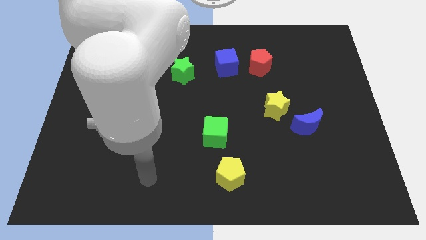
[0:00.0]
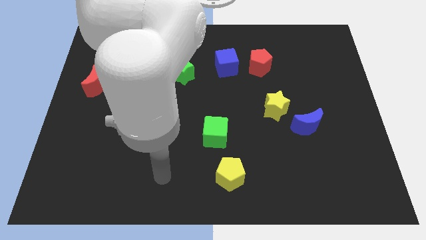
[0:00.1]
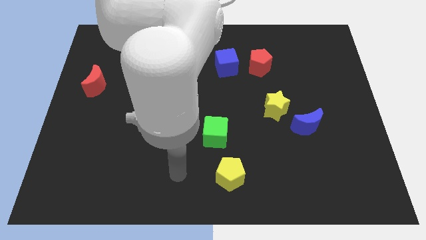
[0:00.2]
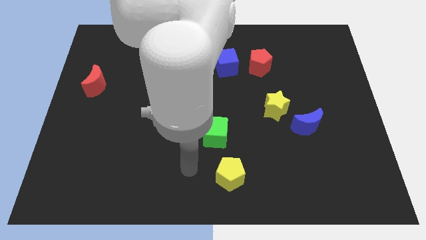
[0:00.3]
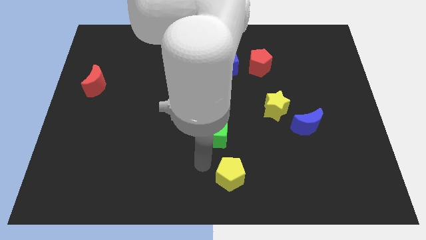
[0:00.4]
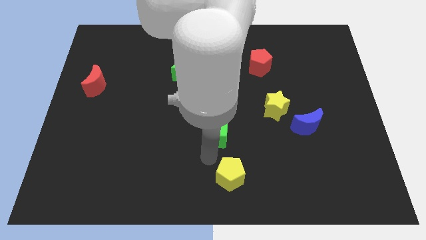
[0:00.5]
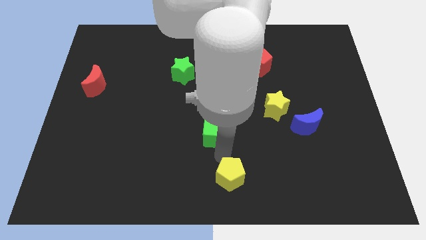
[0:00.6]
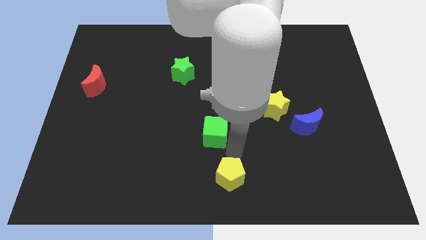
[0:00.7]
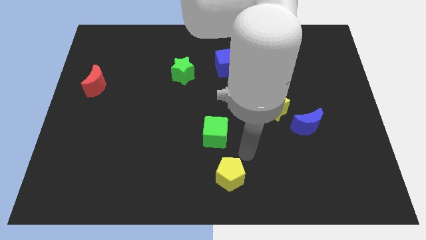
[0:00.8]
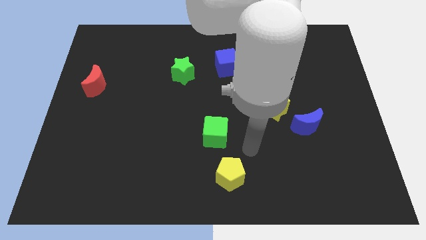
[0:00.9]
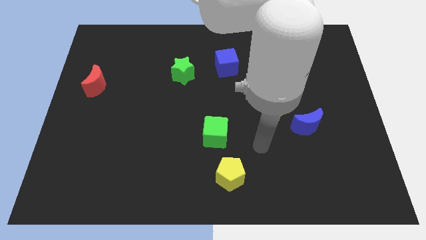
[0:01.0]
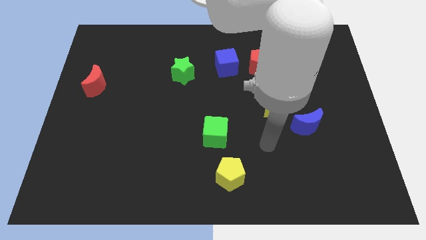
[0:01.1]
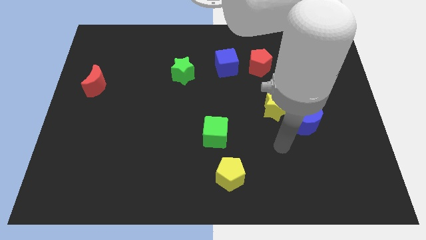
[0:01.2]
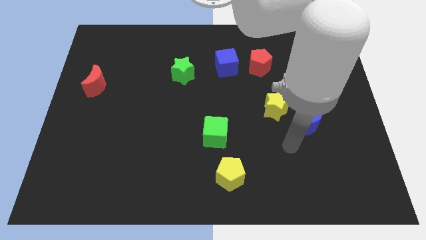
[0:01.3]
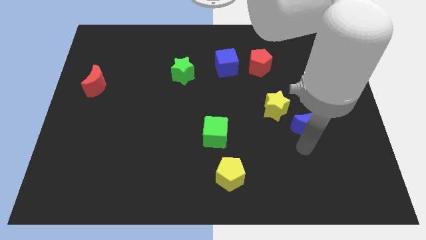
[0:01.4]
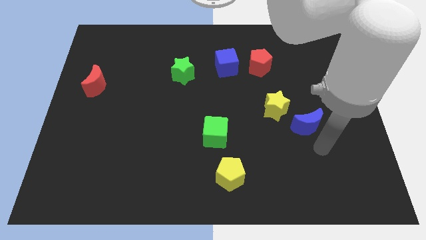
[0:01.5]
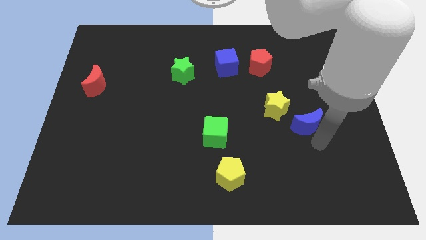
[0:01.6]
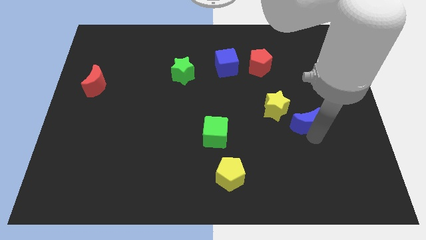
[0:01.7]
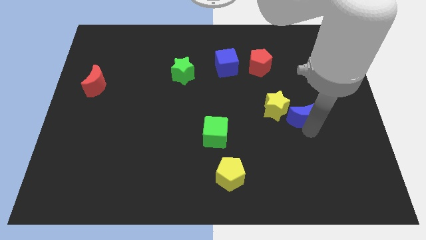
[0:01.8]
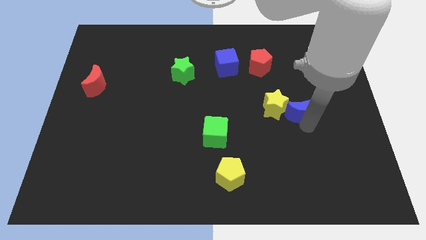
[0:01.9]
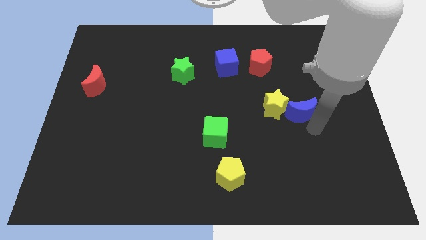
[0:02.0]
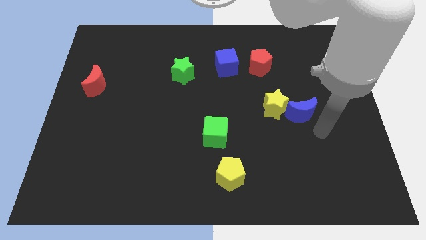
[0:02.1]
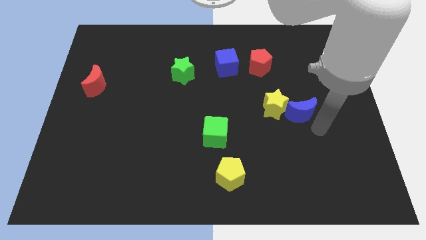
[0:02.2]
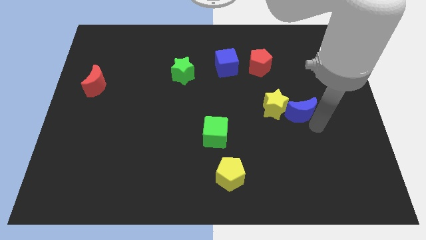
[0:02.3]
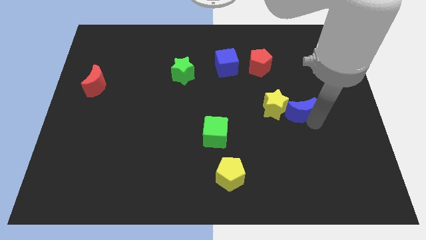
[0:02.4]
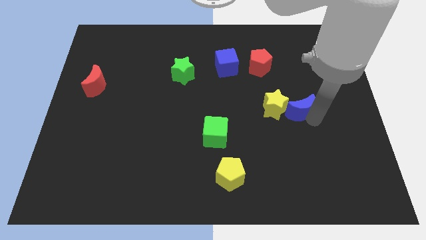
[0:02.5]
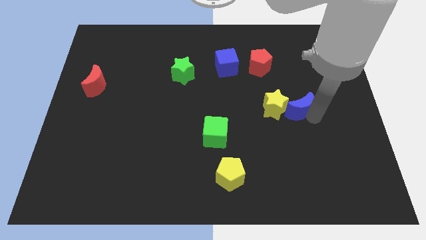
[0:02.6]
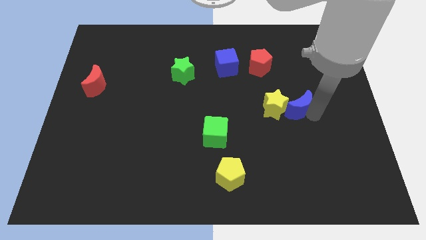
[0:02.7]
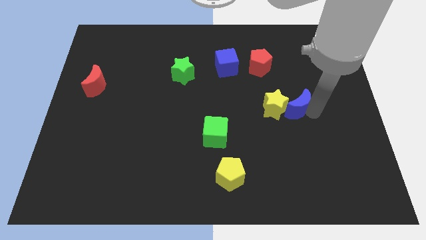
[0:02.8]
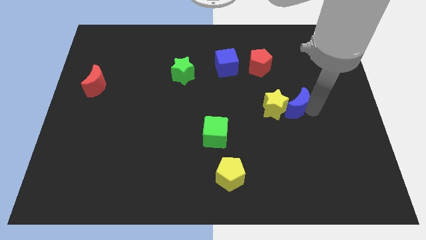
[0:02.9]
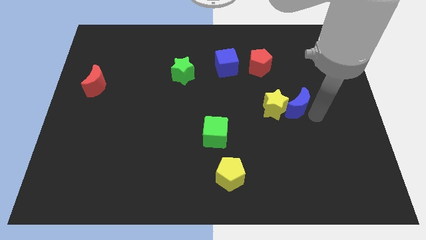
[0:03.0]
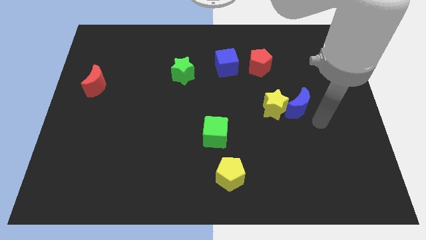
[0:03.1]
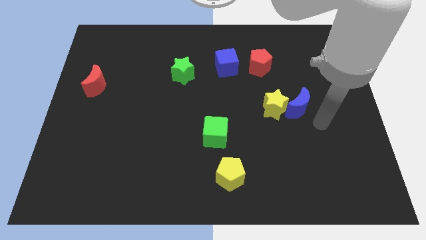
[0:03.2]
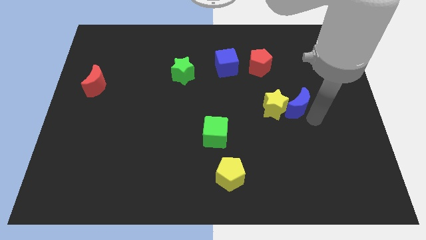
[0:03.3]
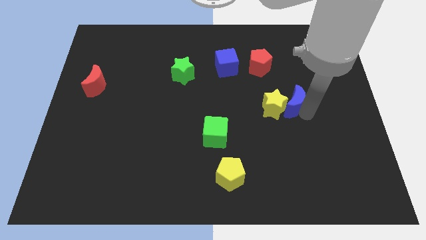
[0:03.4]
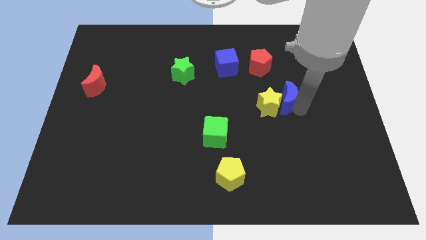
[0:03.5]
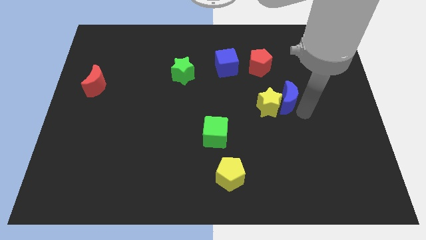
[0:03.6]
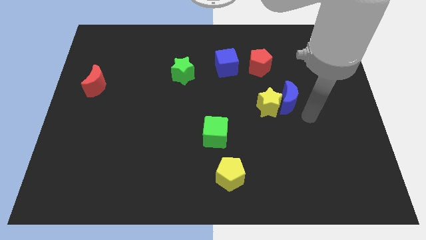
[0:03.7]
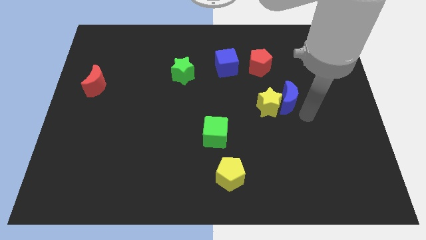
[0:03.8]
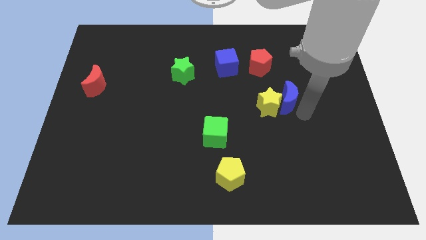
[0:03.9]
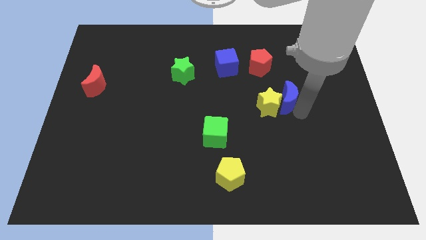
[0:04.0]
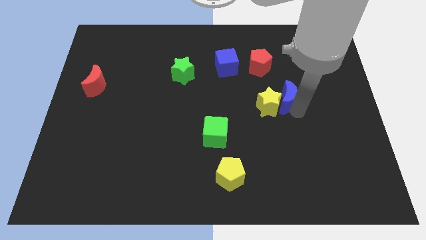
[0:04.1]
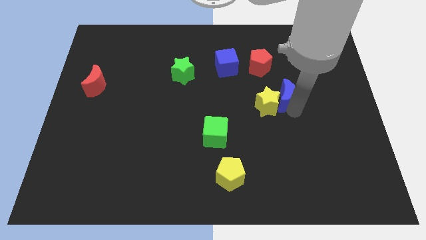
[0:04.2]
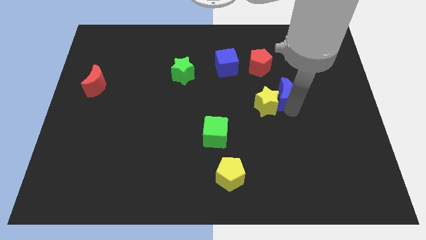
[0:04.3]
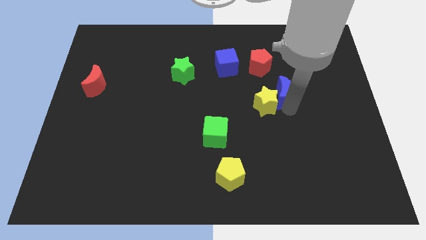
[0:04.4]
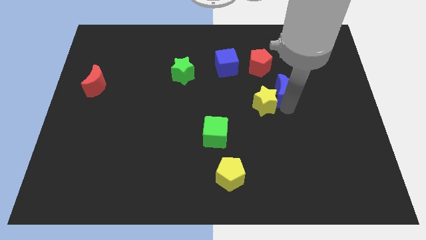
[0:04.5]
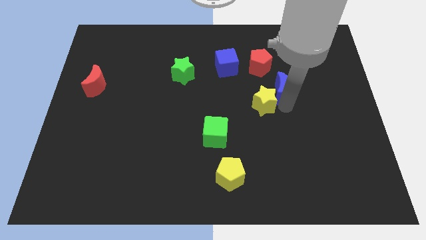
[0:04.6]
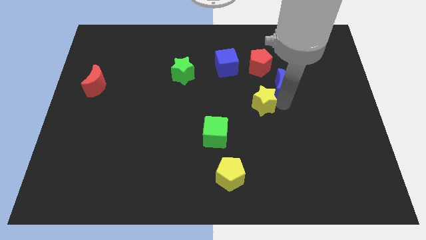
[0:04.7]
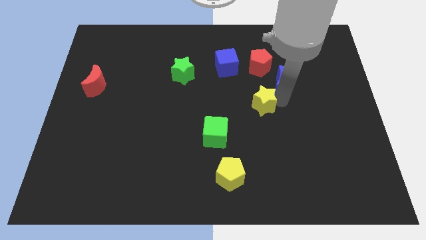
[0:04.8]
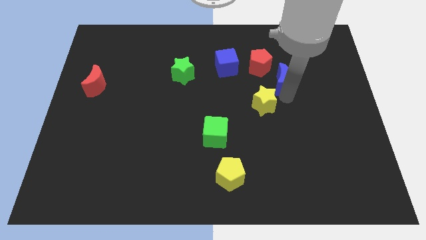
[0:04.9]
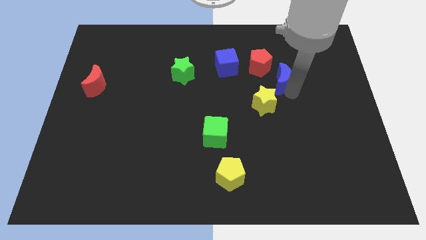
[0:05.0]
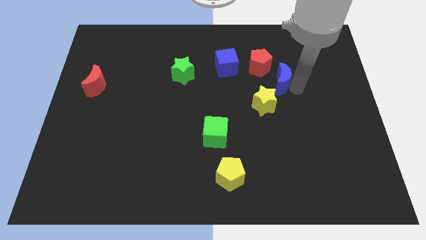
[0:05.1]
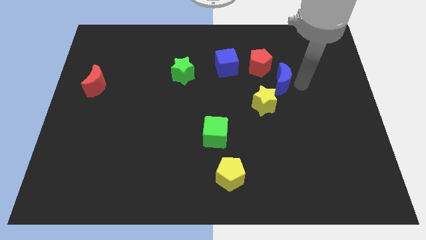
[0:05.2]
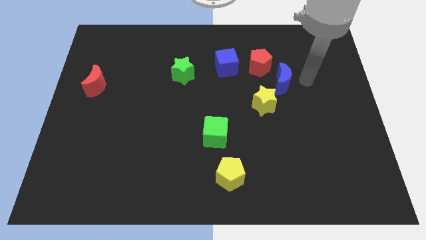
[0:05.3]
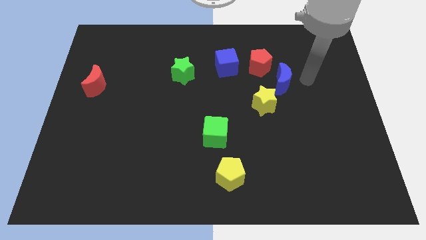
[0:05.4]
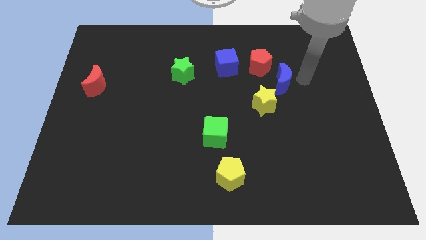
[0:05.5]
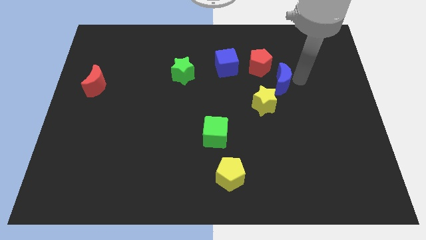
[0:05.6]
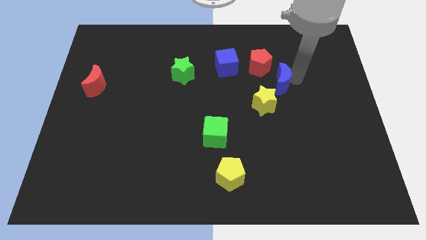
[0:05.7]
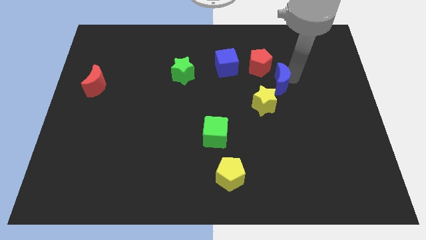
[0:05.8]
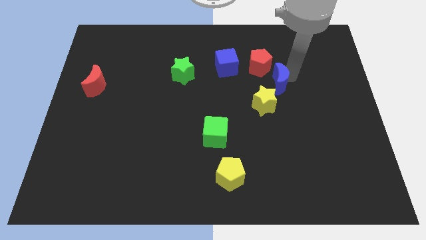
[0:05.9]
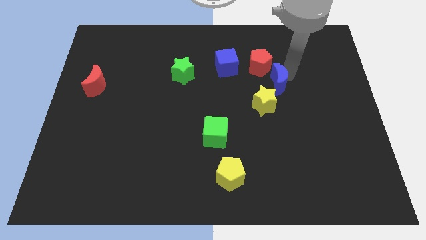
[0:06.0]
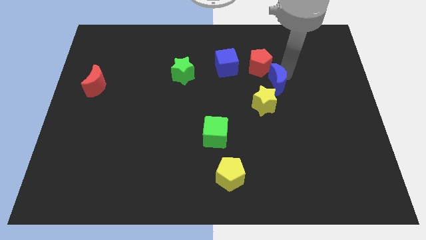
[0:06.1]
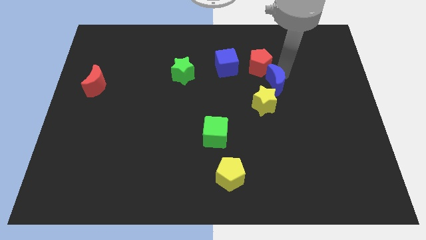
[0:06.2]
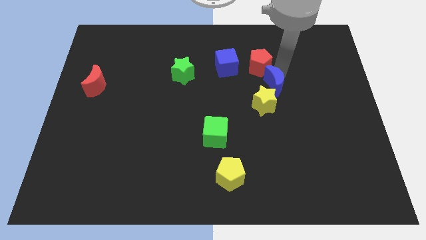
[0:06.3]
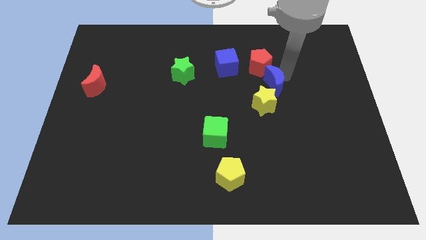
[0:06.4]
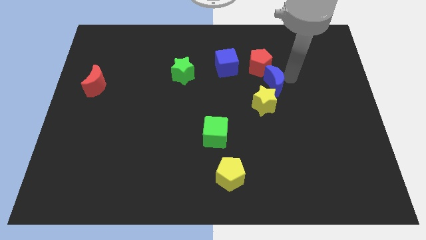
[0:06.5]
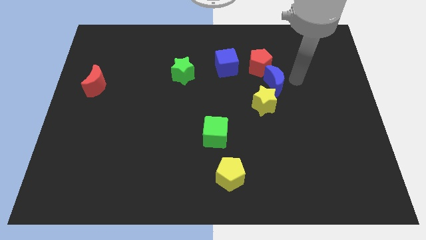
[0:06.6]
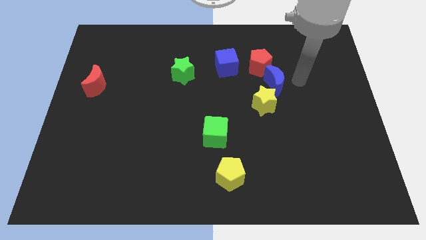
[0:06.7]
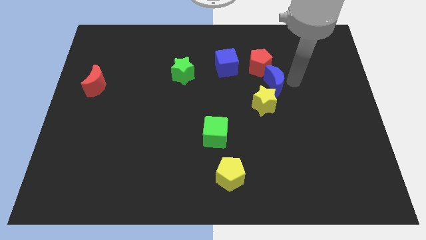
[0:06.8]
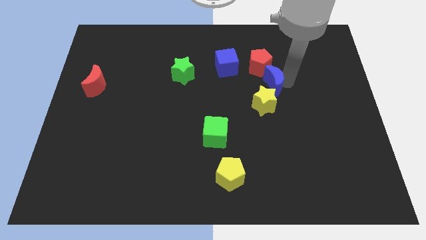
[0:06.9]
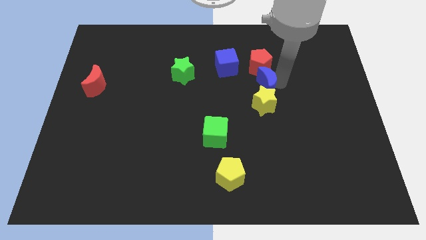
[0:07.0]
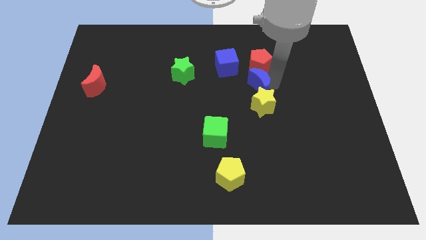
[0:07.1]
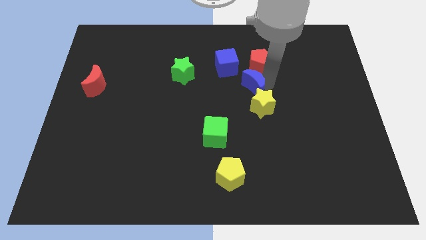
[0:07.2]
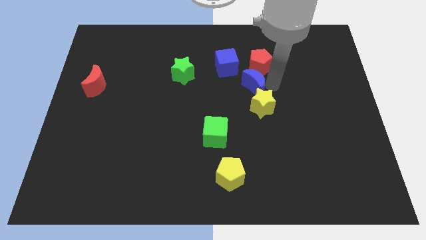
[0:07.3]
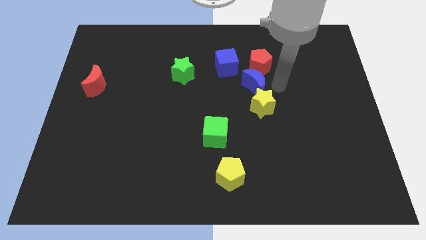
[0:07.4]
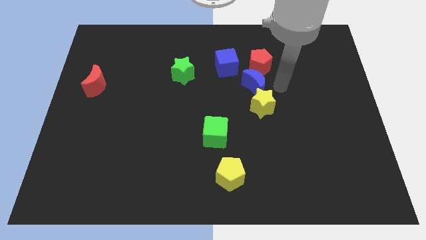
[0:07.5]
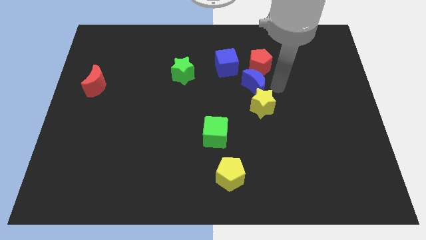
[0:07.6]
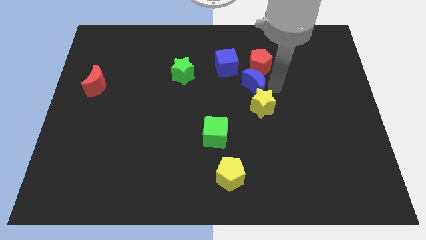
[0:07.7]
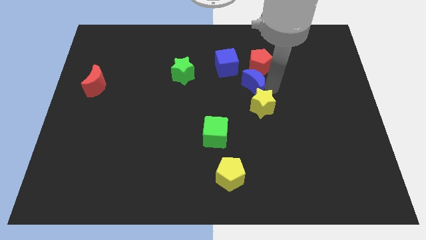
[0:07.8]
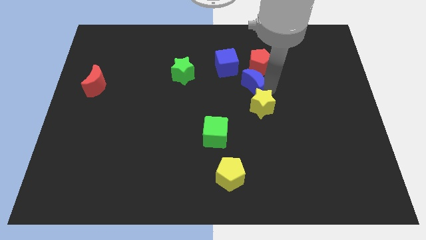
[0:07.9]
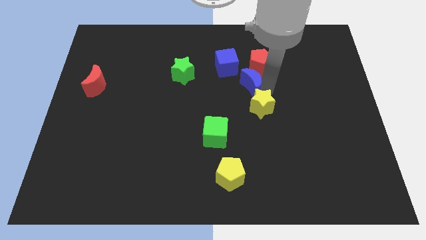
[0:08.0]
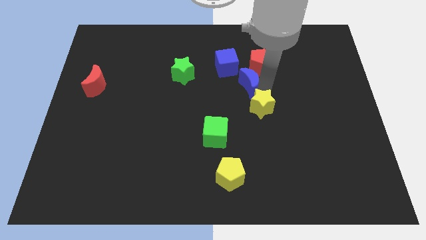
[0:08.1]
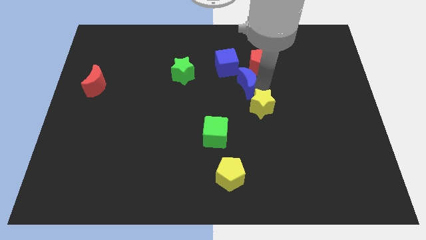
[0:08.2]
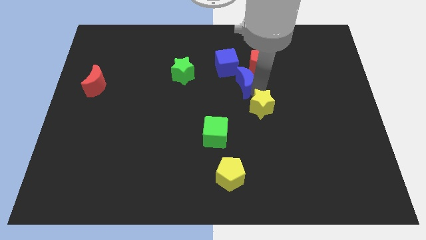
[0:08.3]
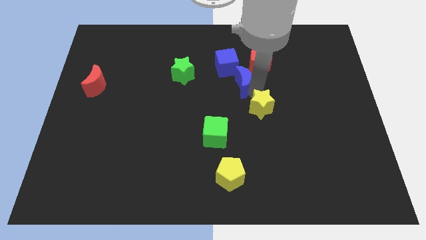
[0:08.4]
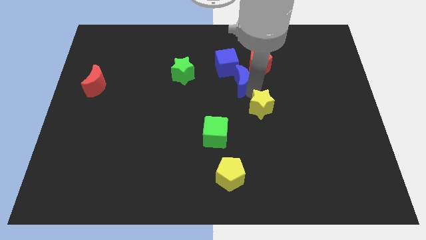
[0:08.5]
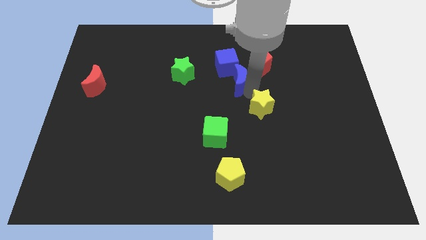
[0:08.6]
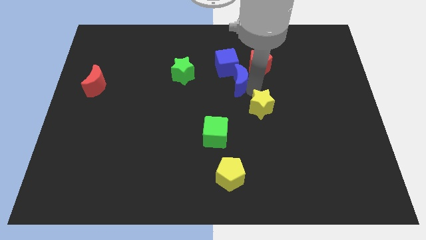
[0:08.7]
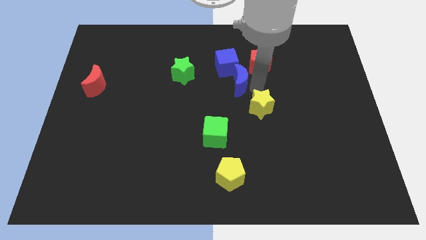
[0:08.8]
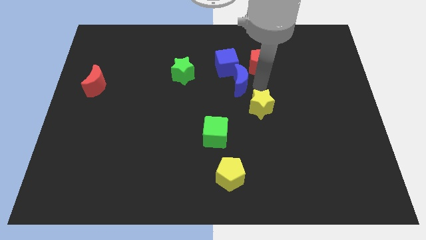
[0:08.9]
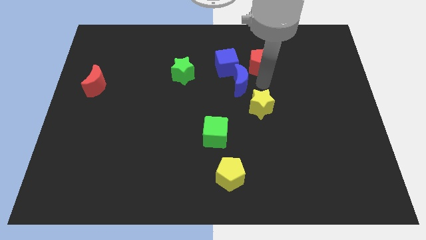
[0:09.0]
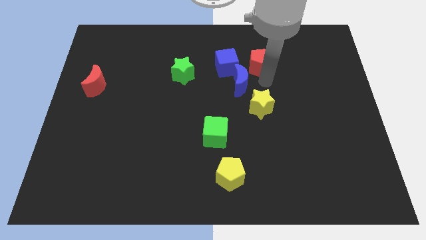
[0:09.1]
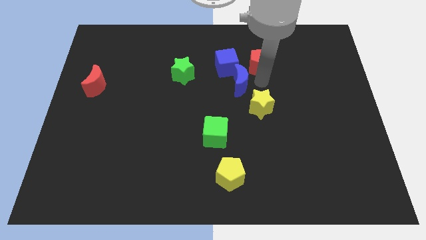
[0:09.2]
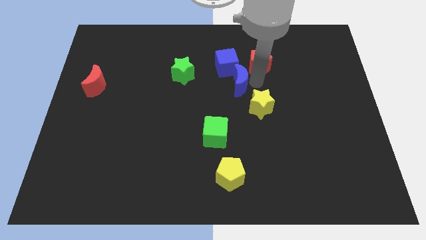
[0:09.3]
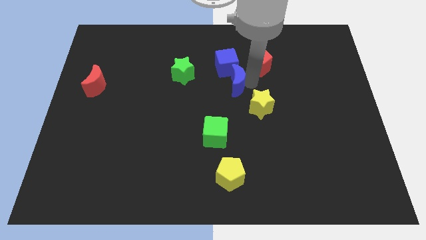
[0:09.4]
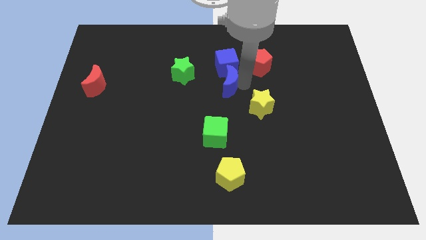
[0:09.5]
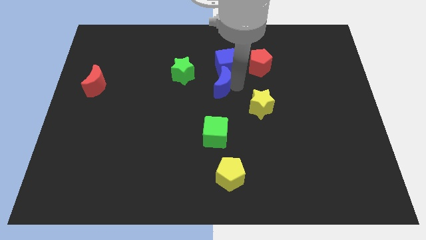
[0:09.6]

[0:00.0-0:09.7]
slide the blue moon to the bottom left of the blue cube
